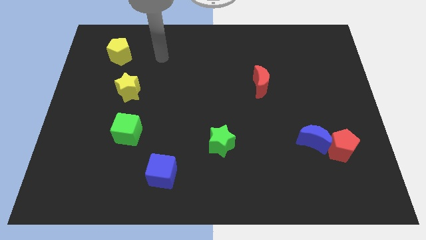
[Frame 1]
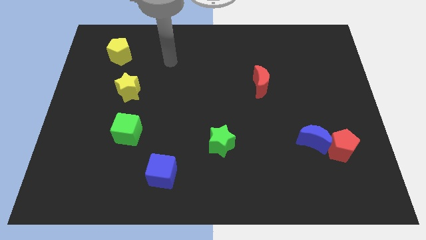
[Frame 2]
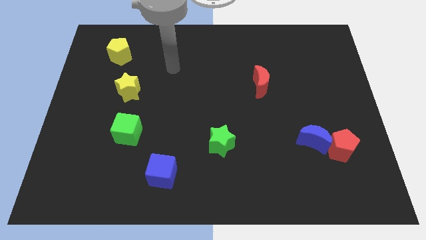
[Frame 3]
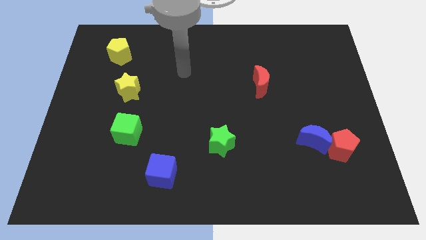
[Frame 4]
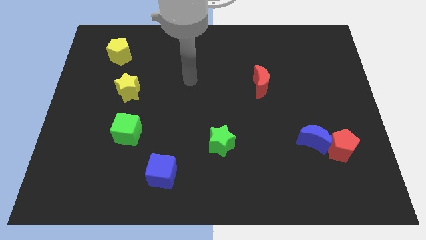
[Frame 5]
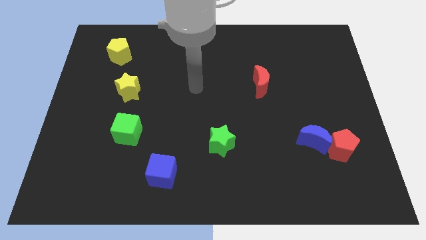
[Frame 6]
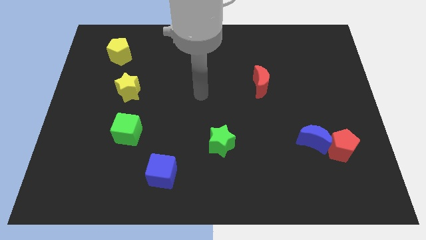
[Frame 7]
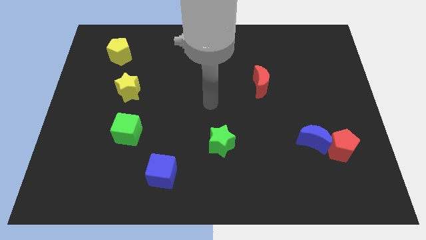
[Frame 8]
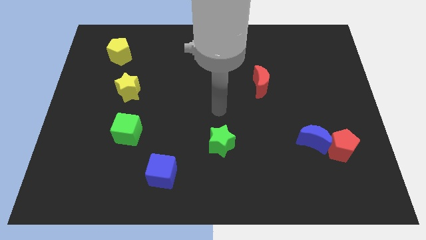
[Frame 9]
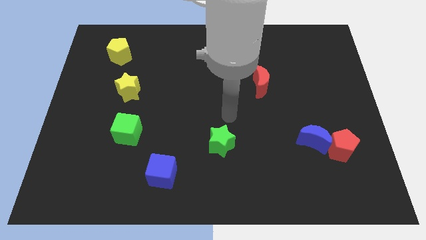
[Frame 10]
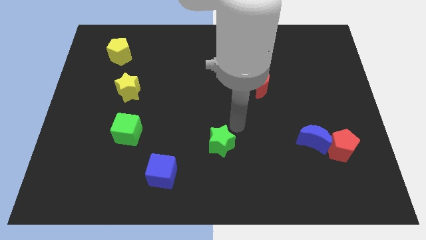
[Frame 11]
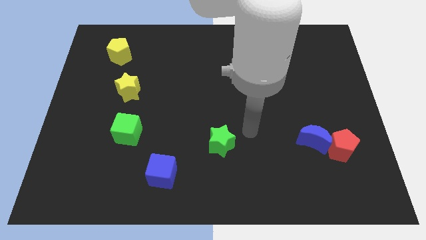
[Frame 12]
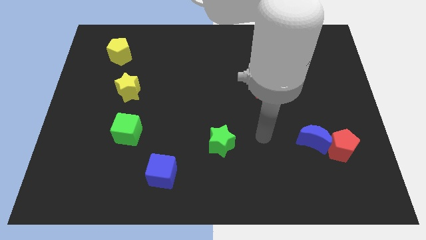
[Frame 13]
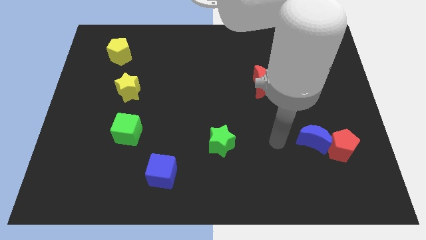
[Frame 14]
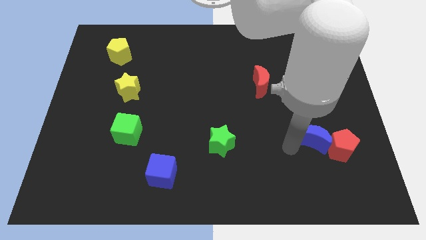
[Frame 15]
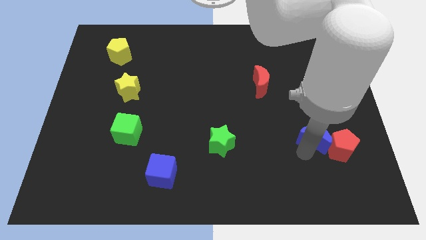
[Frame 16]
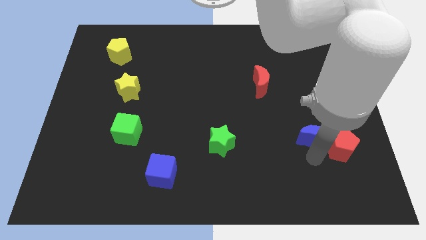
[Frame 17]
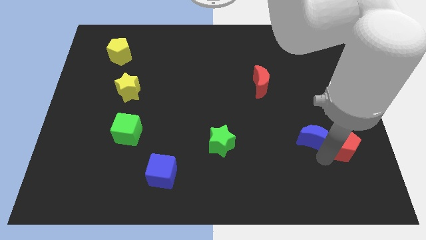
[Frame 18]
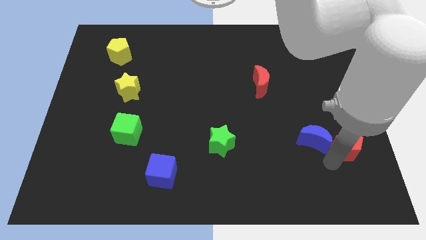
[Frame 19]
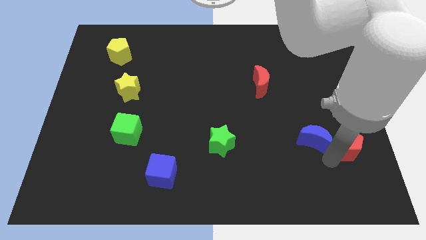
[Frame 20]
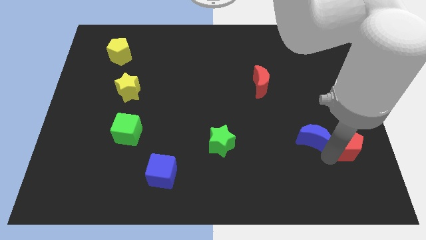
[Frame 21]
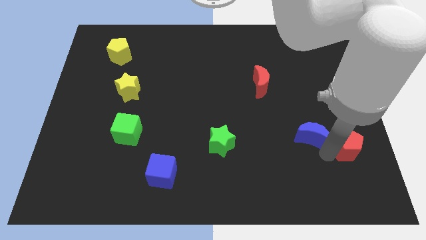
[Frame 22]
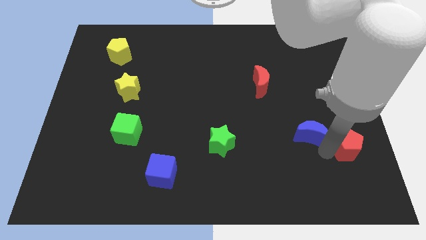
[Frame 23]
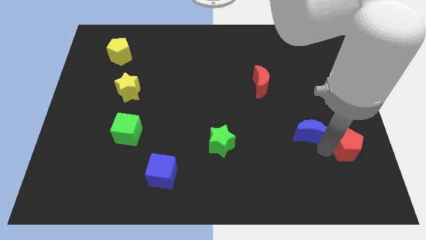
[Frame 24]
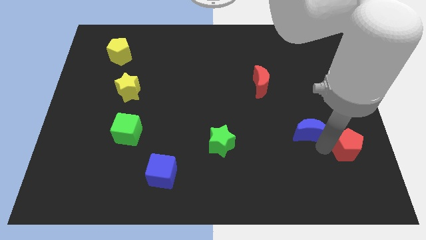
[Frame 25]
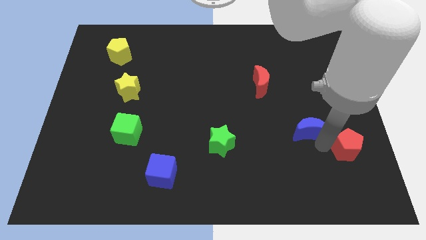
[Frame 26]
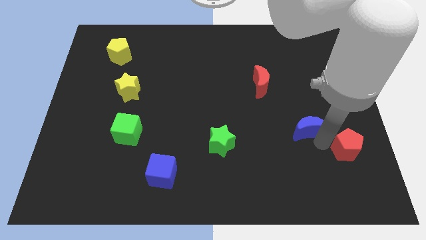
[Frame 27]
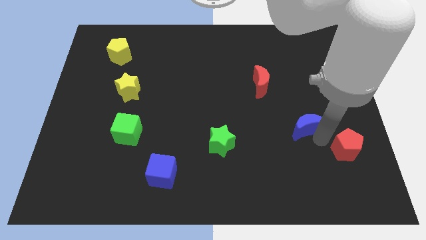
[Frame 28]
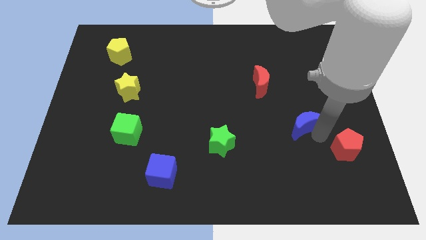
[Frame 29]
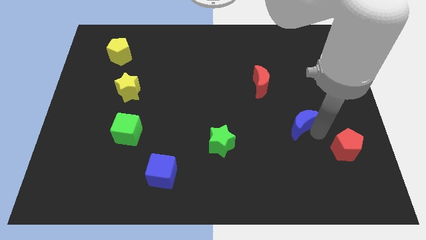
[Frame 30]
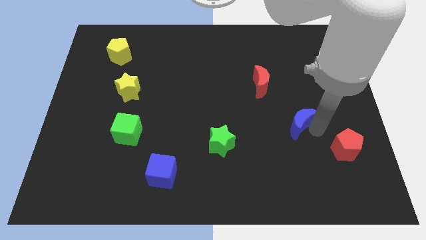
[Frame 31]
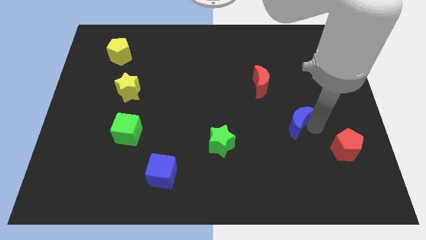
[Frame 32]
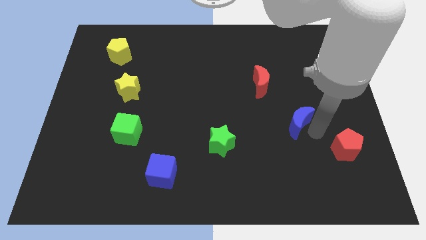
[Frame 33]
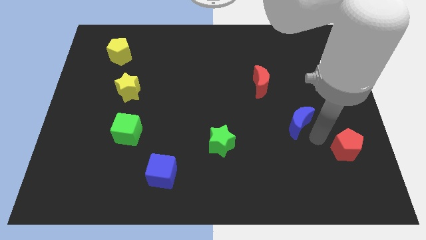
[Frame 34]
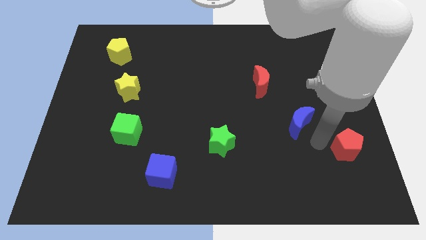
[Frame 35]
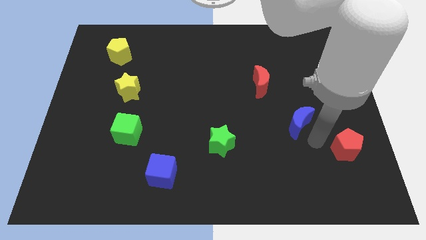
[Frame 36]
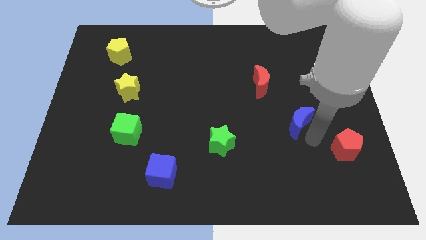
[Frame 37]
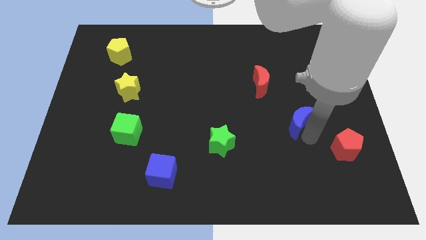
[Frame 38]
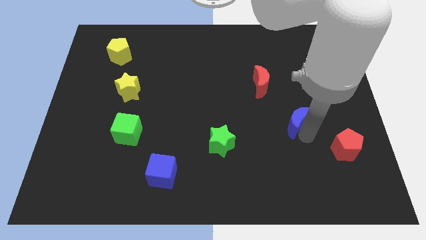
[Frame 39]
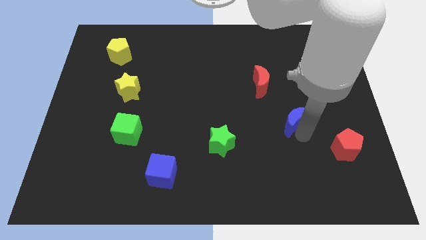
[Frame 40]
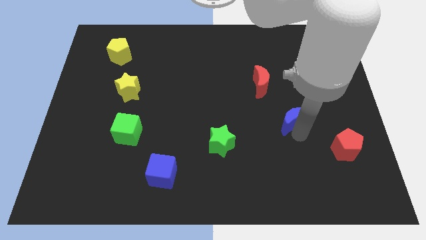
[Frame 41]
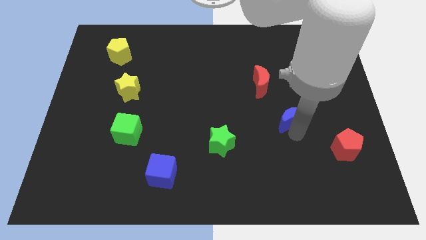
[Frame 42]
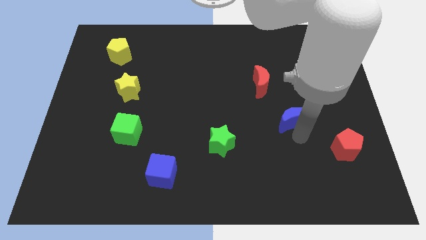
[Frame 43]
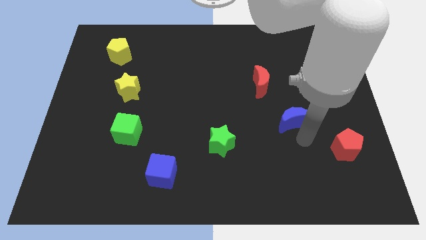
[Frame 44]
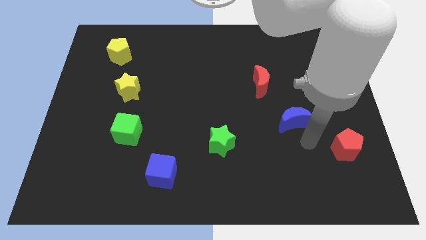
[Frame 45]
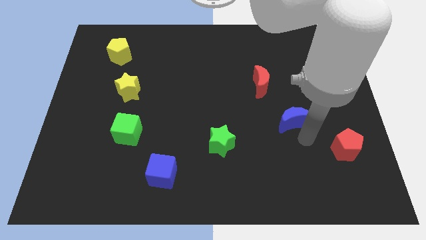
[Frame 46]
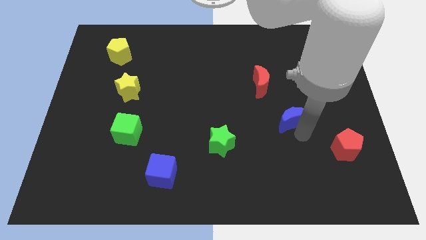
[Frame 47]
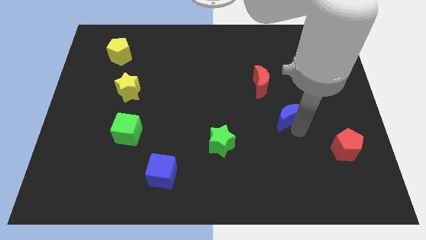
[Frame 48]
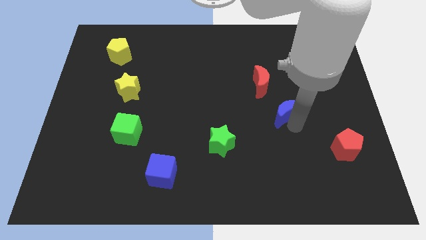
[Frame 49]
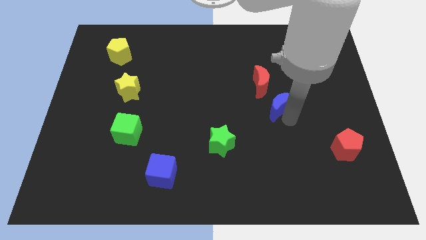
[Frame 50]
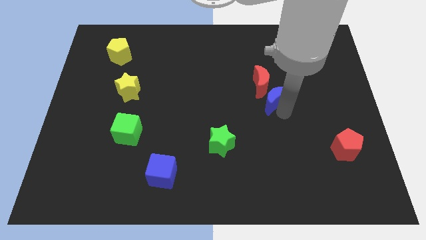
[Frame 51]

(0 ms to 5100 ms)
put the blue moon close to the red moon

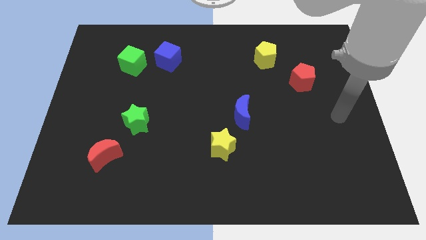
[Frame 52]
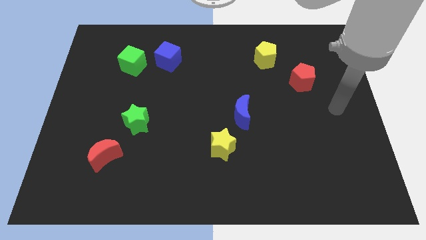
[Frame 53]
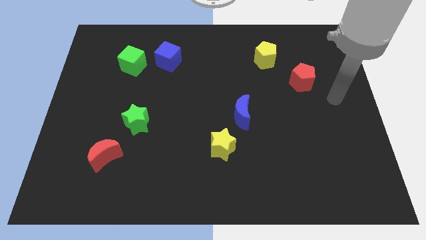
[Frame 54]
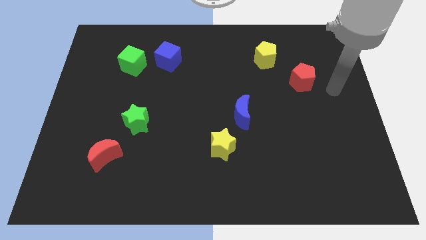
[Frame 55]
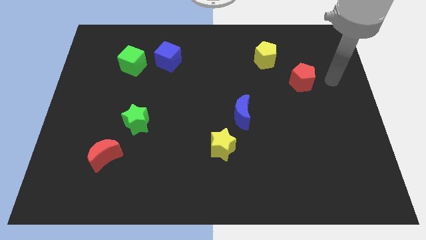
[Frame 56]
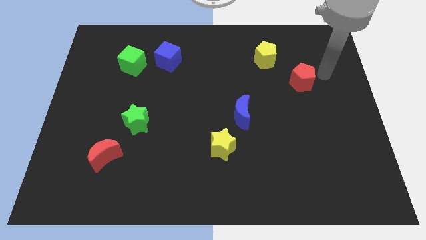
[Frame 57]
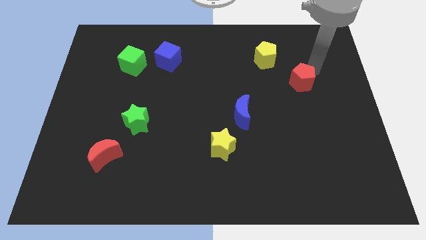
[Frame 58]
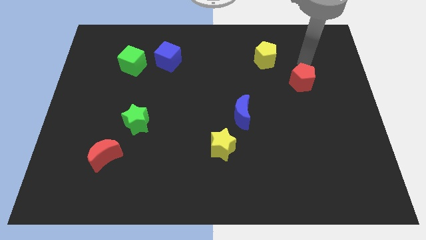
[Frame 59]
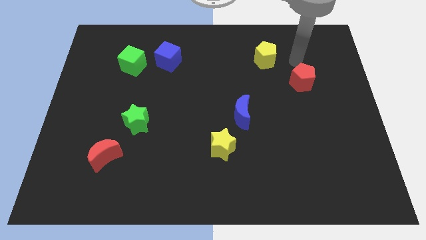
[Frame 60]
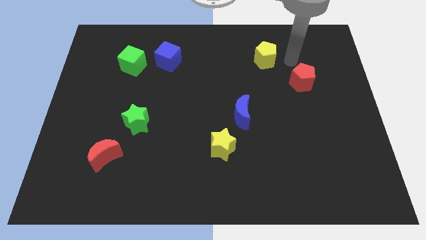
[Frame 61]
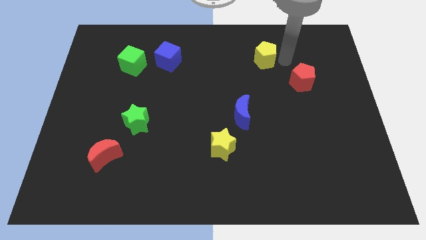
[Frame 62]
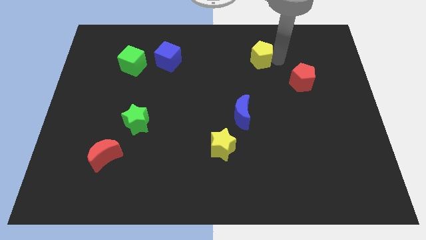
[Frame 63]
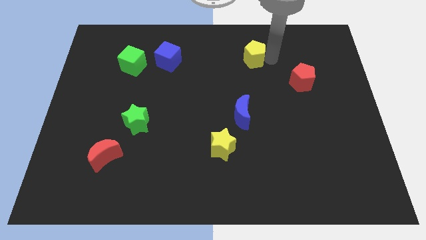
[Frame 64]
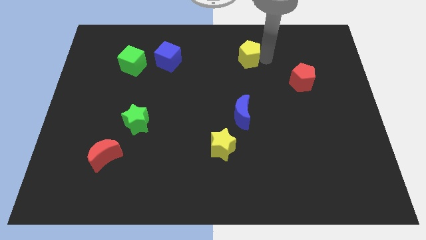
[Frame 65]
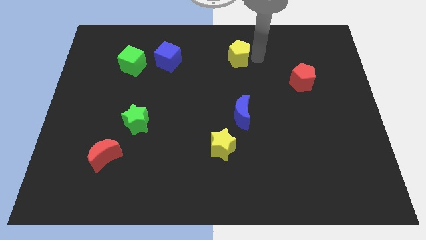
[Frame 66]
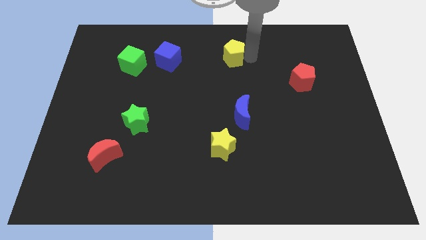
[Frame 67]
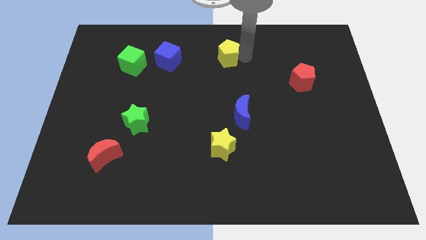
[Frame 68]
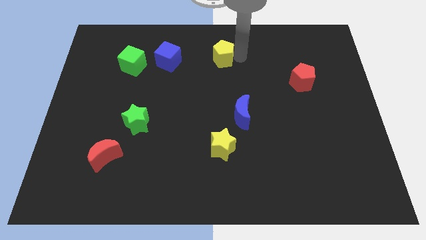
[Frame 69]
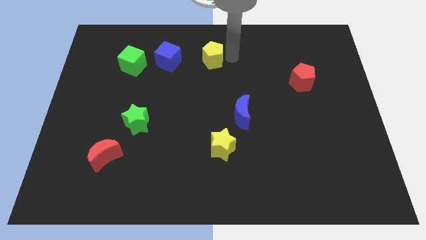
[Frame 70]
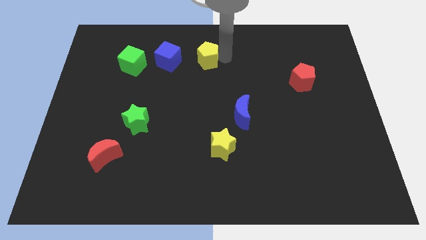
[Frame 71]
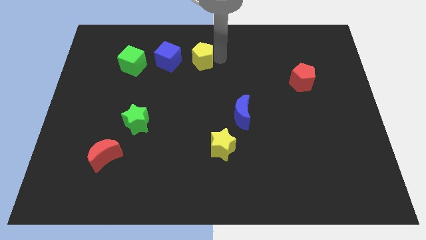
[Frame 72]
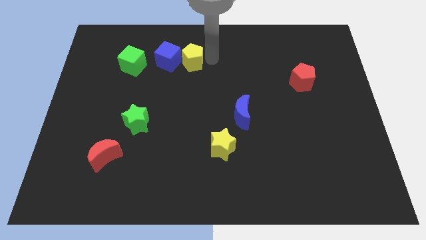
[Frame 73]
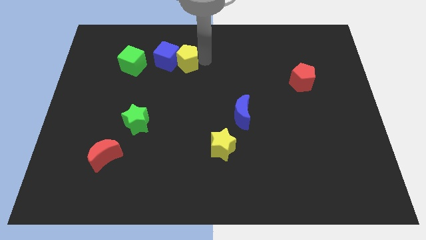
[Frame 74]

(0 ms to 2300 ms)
slide the yellow pentagon towards the blue cube
